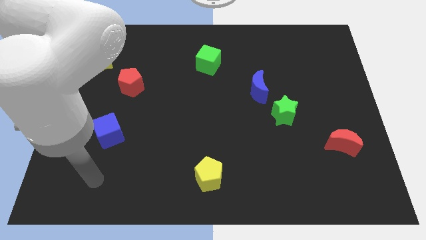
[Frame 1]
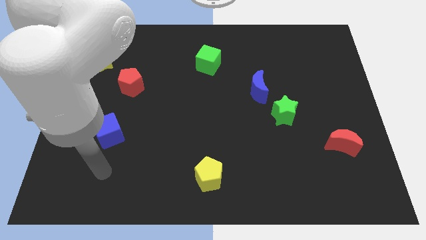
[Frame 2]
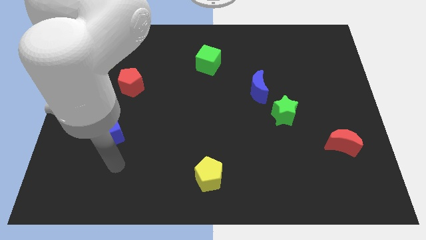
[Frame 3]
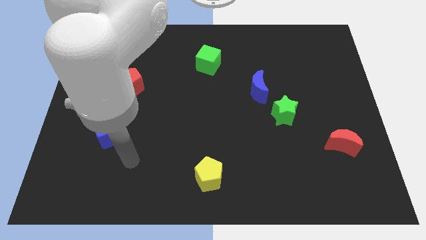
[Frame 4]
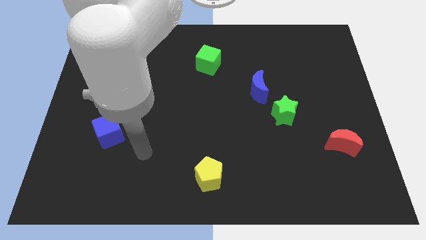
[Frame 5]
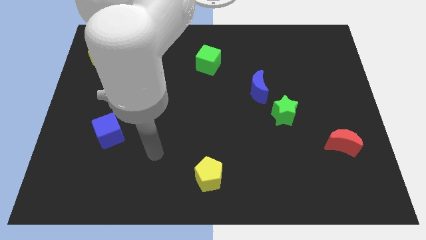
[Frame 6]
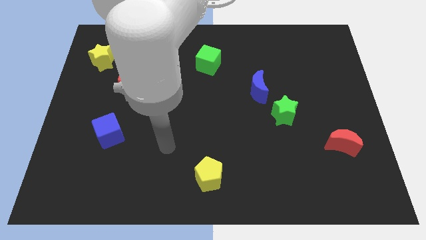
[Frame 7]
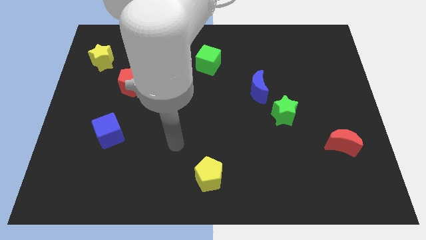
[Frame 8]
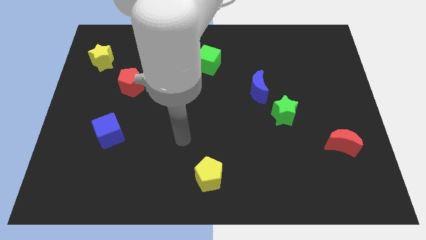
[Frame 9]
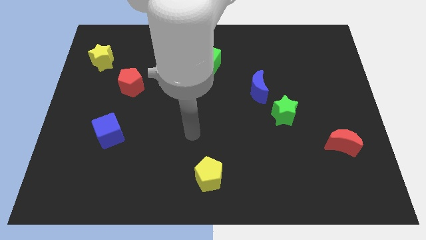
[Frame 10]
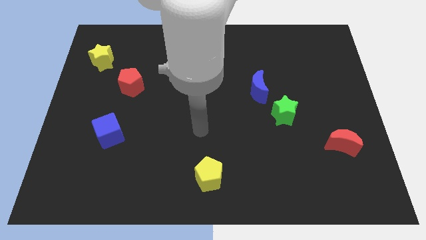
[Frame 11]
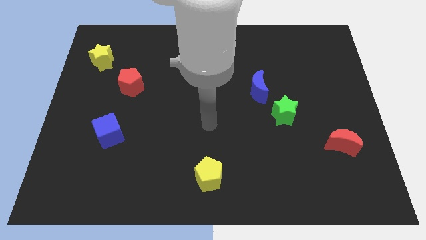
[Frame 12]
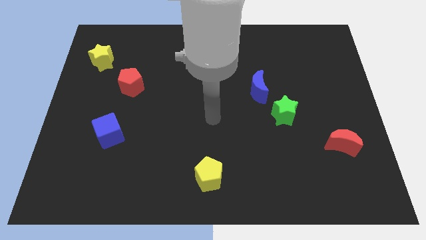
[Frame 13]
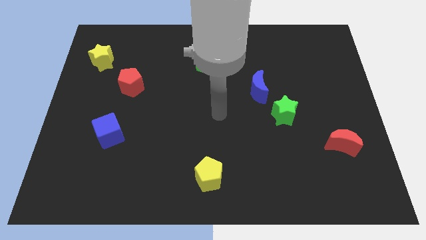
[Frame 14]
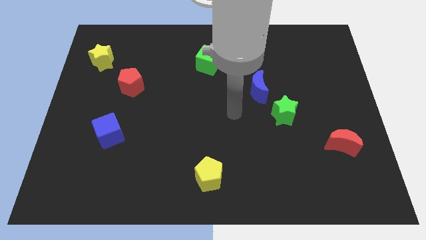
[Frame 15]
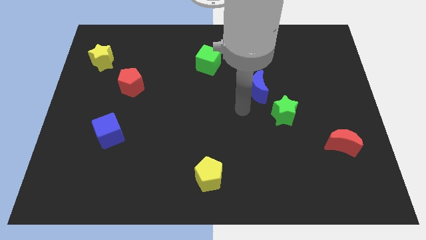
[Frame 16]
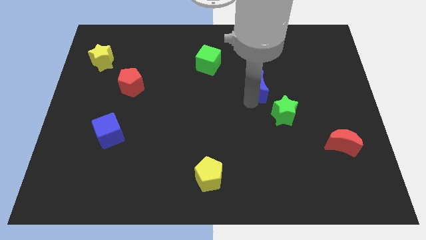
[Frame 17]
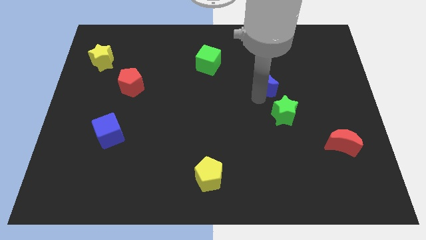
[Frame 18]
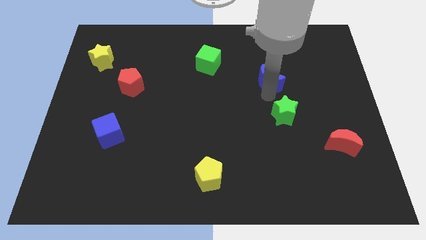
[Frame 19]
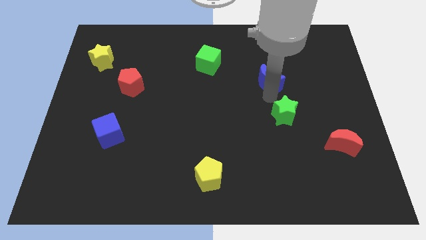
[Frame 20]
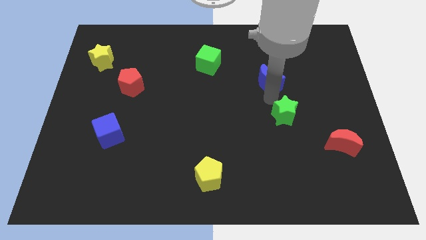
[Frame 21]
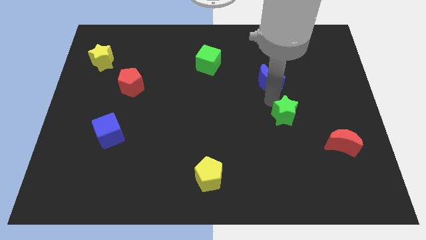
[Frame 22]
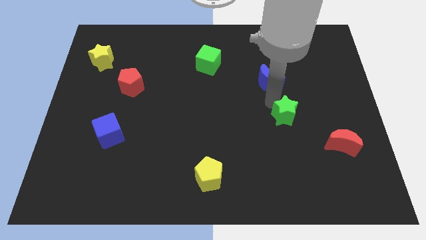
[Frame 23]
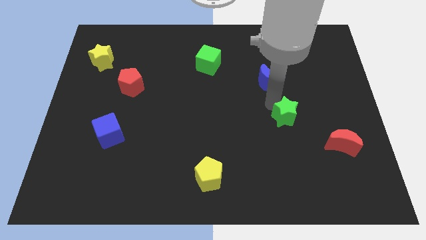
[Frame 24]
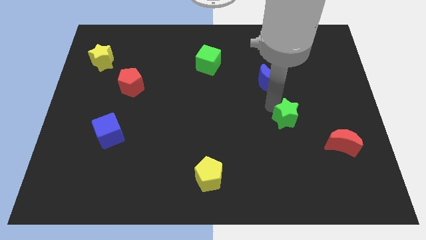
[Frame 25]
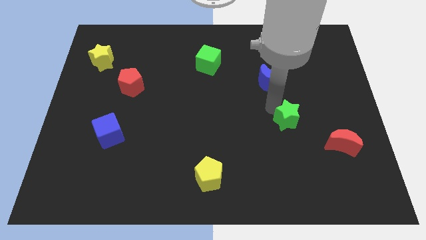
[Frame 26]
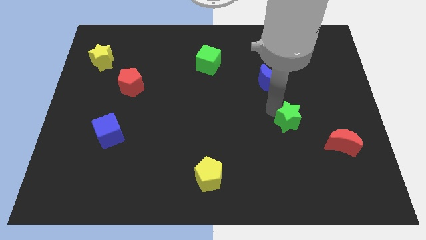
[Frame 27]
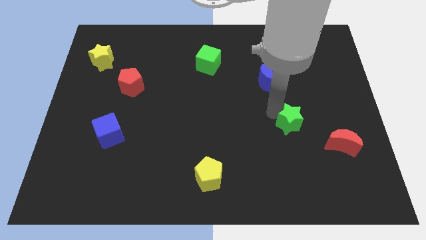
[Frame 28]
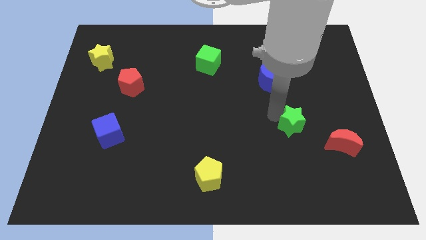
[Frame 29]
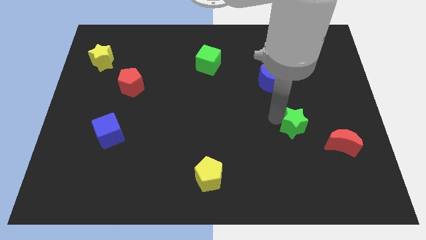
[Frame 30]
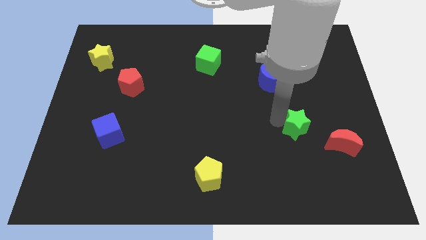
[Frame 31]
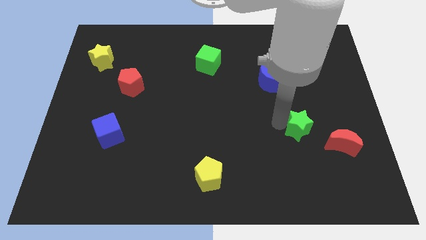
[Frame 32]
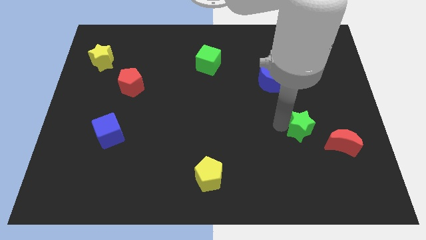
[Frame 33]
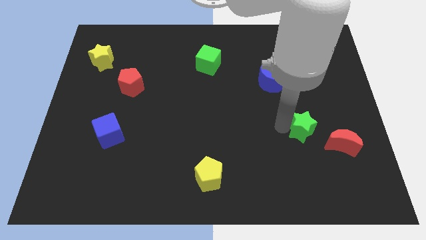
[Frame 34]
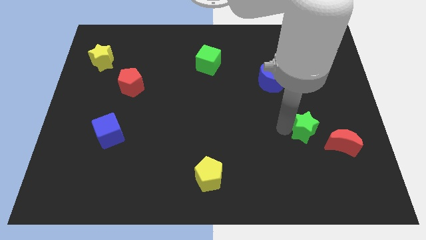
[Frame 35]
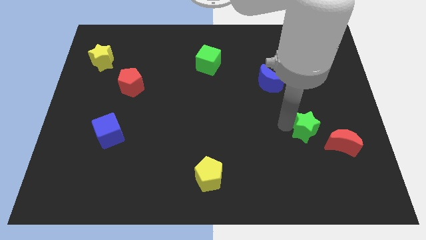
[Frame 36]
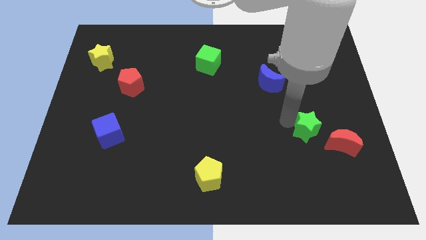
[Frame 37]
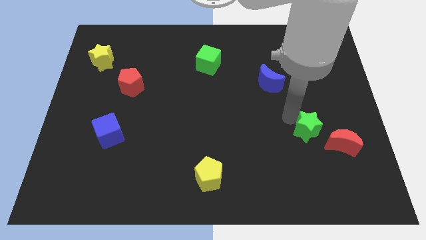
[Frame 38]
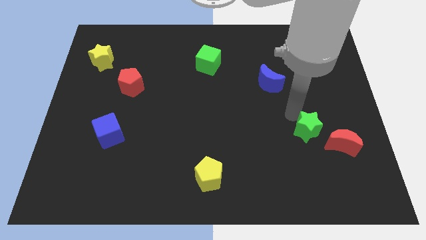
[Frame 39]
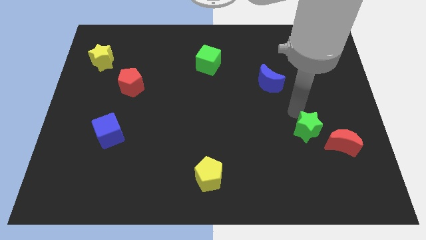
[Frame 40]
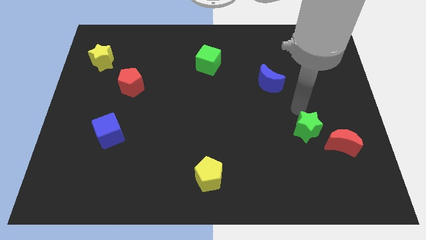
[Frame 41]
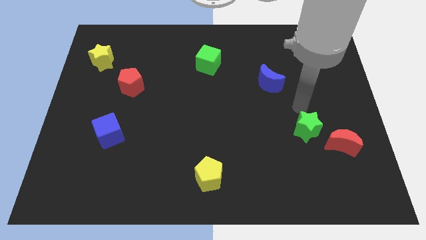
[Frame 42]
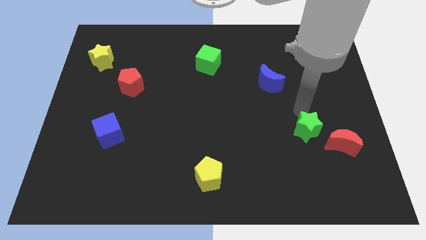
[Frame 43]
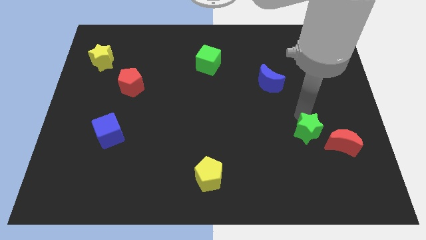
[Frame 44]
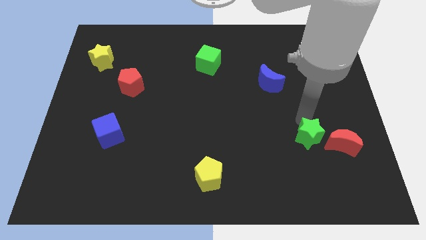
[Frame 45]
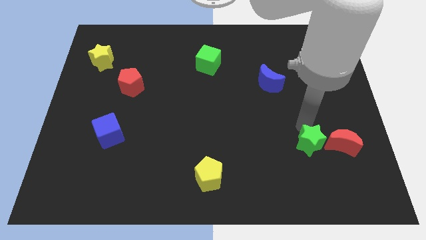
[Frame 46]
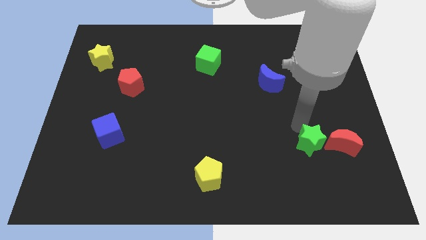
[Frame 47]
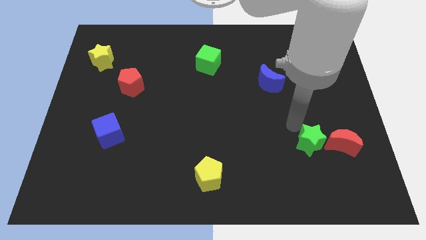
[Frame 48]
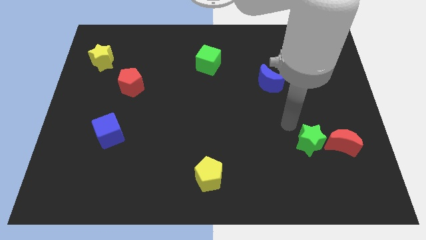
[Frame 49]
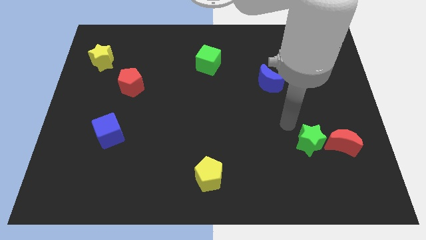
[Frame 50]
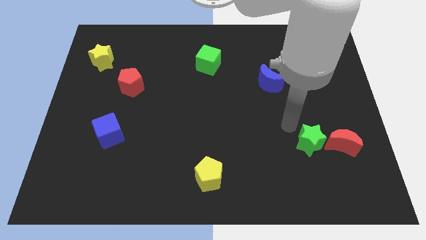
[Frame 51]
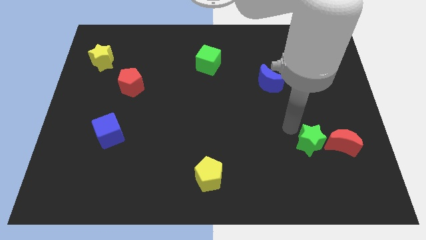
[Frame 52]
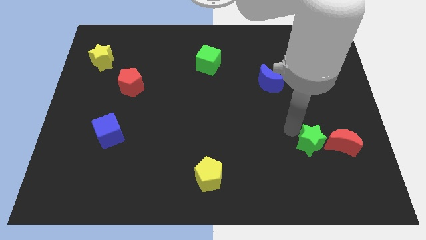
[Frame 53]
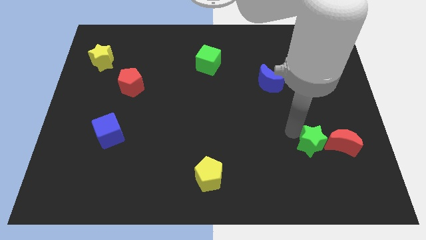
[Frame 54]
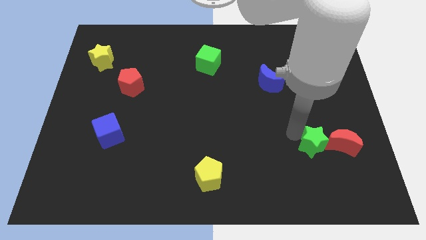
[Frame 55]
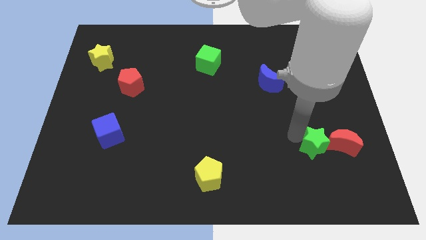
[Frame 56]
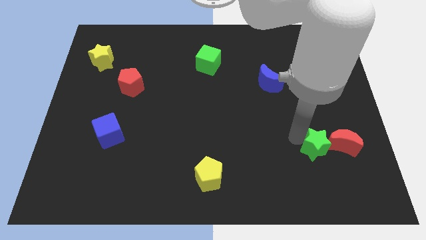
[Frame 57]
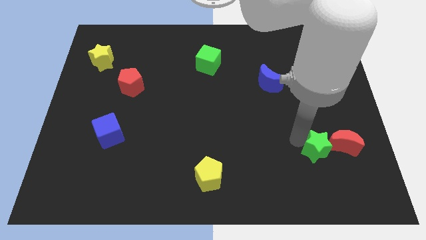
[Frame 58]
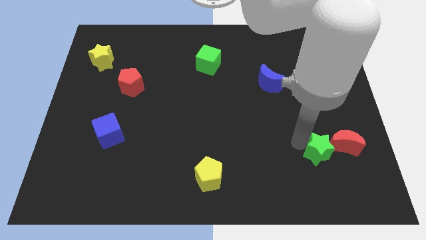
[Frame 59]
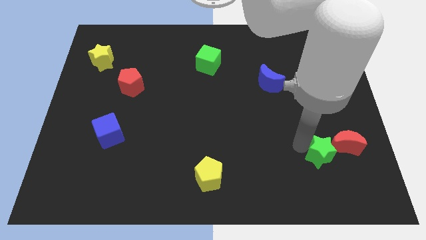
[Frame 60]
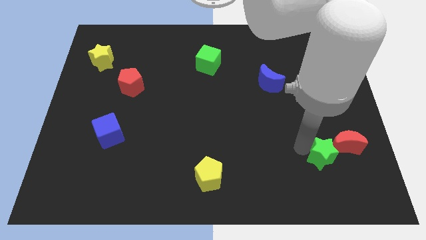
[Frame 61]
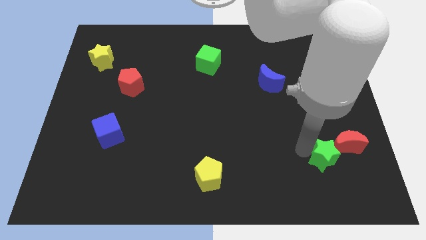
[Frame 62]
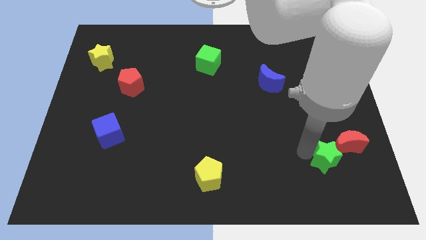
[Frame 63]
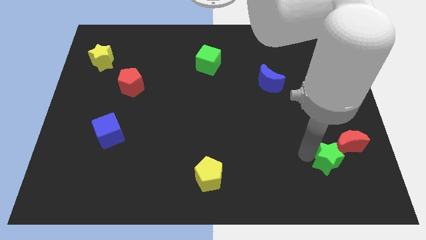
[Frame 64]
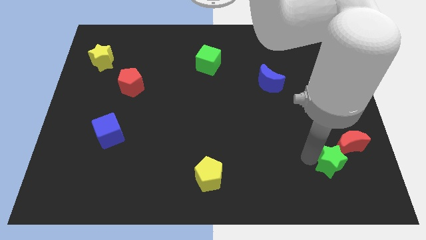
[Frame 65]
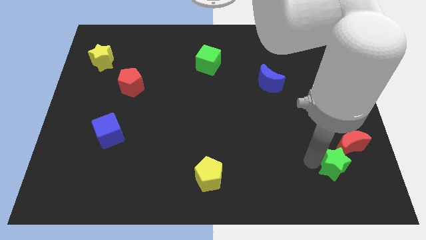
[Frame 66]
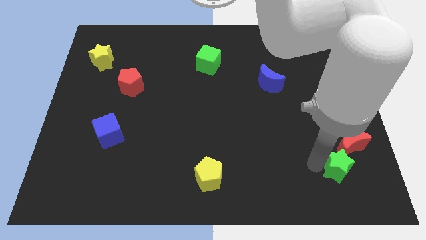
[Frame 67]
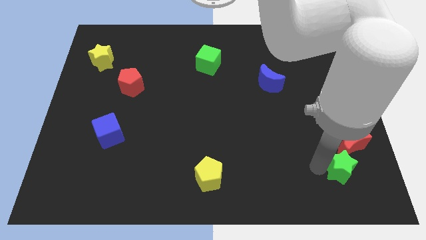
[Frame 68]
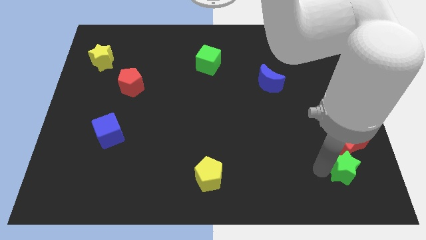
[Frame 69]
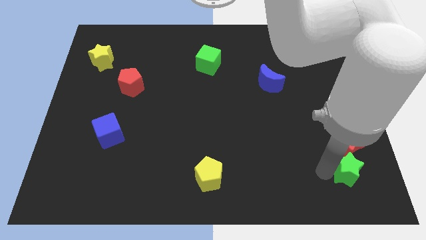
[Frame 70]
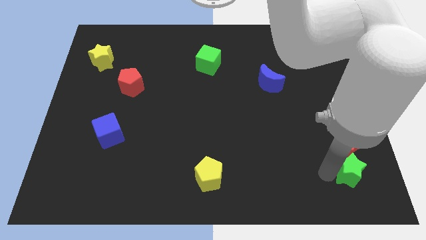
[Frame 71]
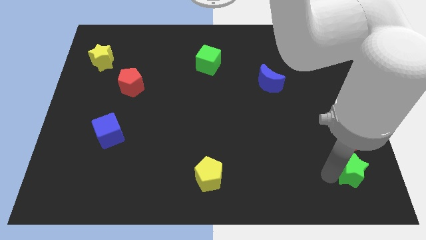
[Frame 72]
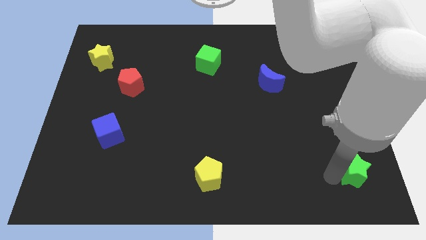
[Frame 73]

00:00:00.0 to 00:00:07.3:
put the green star to the bottom right
